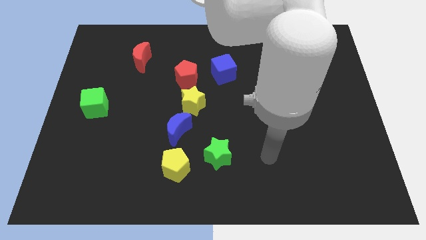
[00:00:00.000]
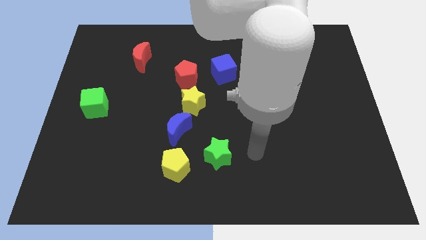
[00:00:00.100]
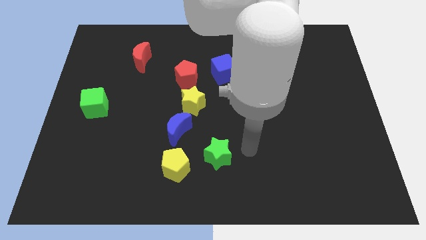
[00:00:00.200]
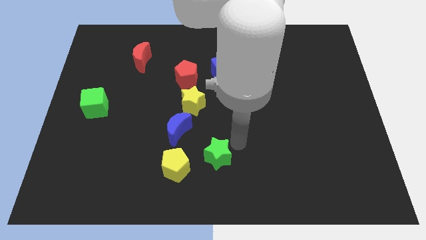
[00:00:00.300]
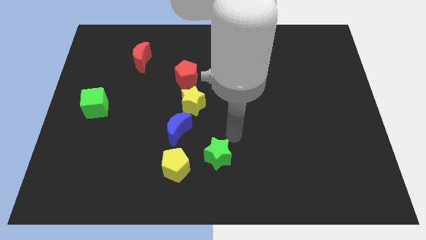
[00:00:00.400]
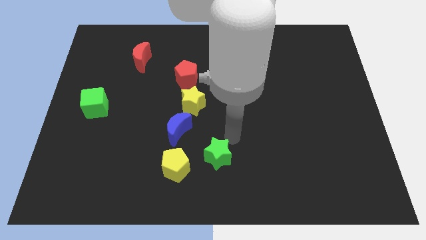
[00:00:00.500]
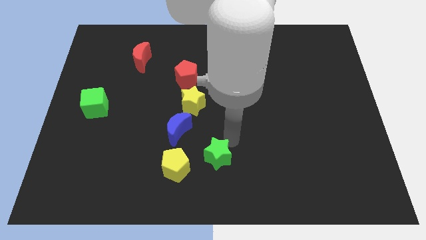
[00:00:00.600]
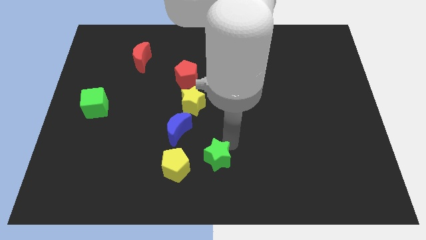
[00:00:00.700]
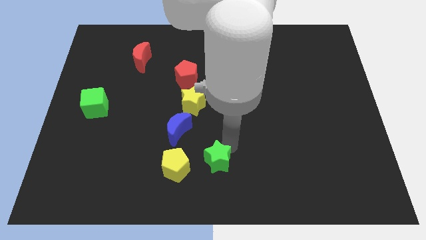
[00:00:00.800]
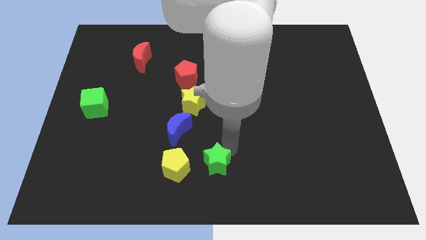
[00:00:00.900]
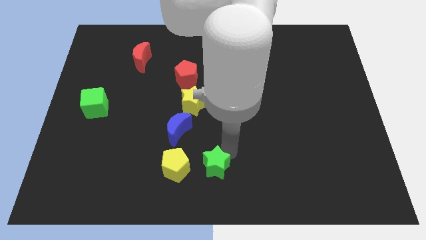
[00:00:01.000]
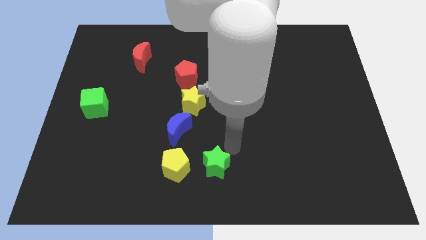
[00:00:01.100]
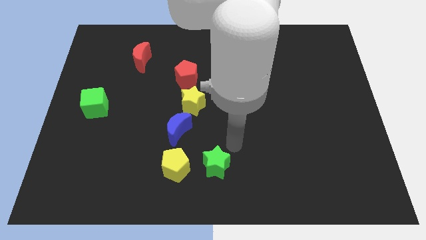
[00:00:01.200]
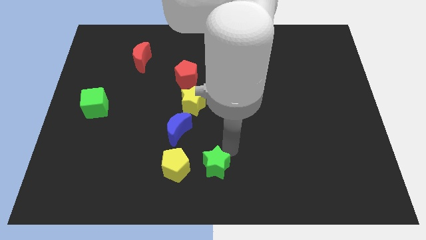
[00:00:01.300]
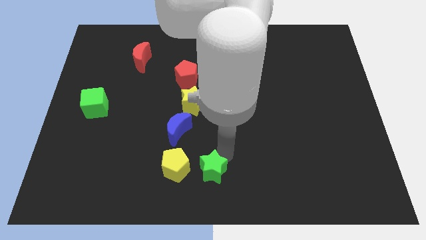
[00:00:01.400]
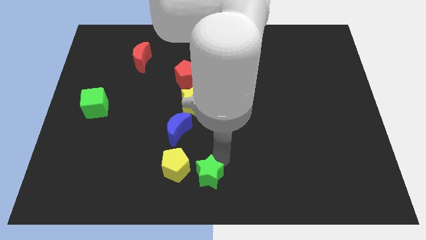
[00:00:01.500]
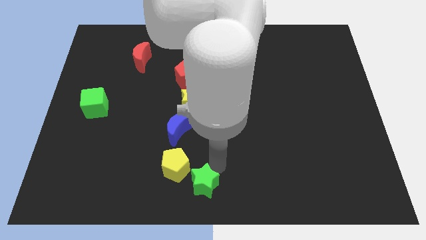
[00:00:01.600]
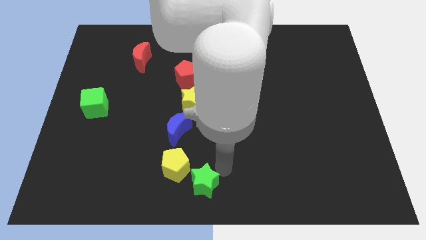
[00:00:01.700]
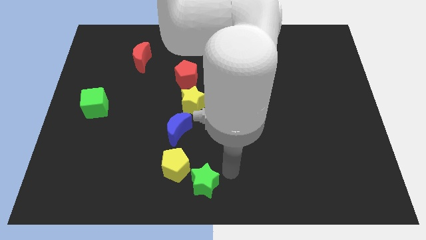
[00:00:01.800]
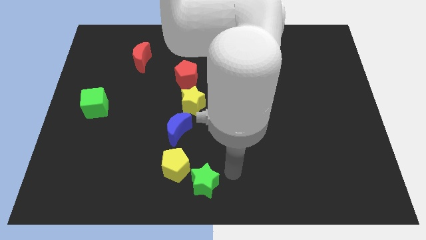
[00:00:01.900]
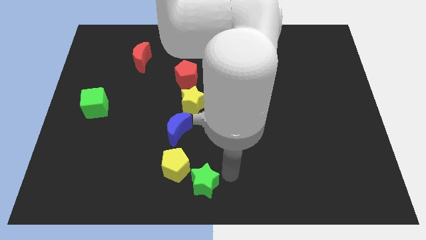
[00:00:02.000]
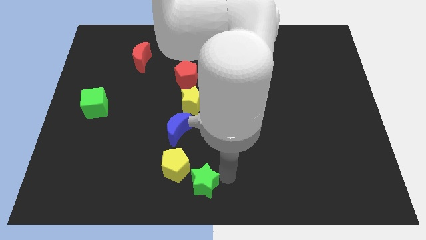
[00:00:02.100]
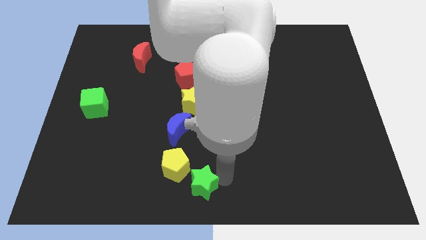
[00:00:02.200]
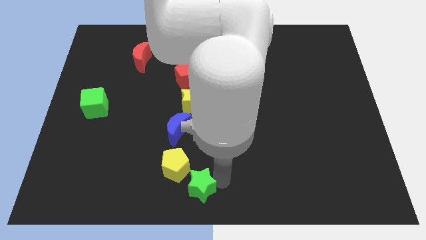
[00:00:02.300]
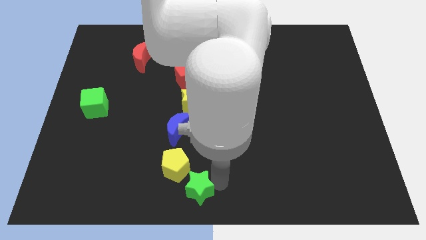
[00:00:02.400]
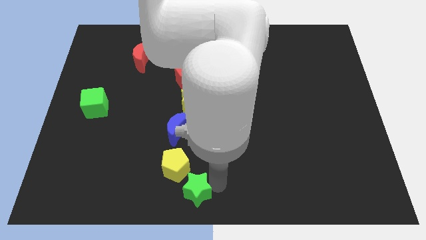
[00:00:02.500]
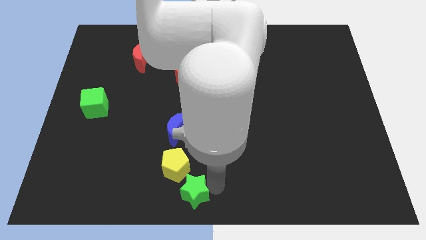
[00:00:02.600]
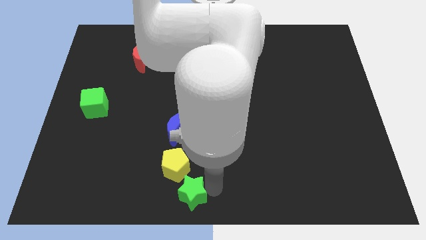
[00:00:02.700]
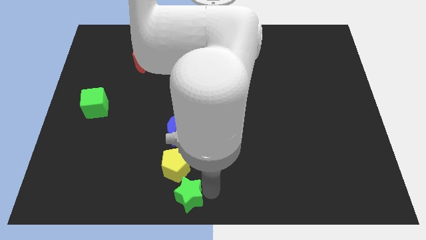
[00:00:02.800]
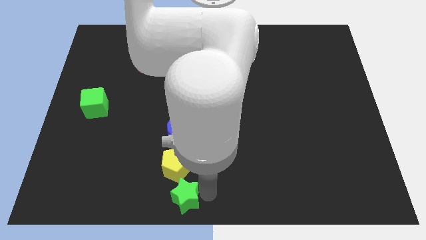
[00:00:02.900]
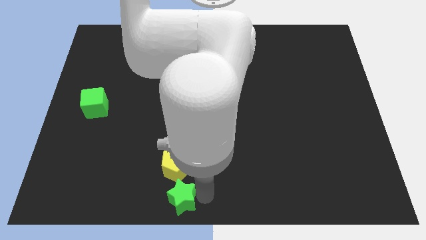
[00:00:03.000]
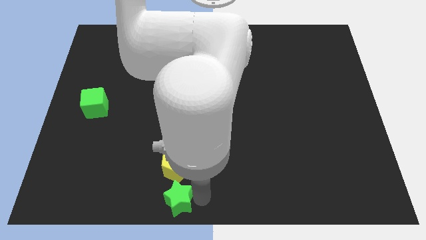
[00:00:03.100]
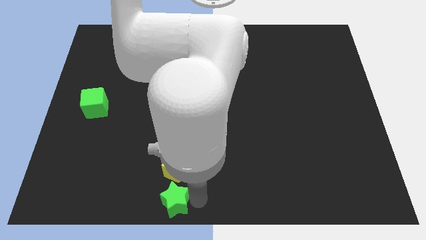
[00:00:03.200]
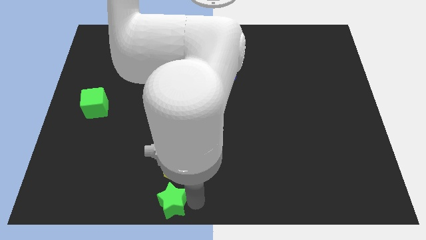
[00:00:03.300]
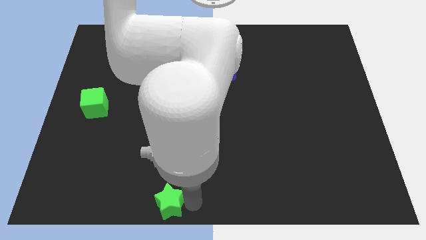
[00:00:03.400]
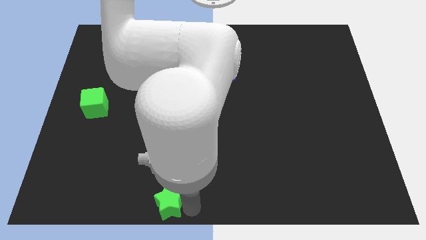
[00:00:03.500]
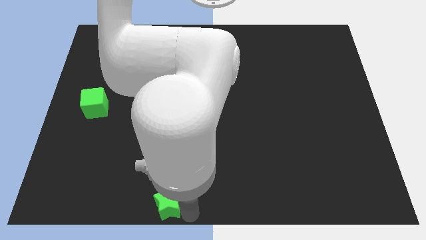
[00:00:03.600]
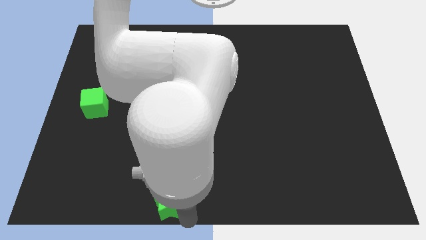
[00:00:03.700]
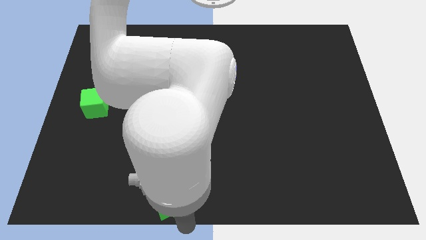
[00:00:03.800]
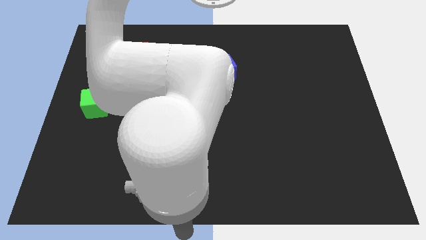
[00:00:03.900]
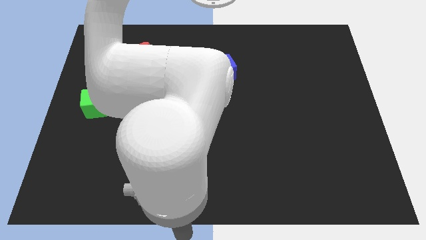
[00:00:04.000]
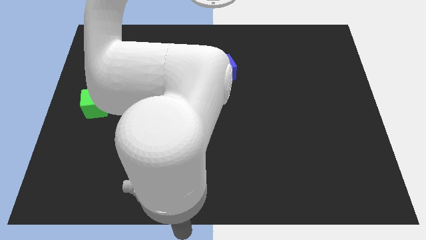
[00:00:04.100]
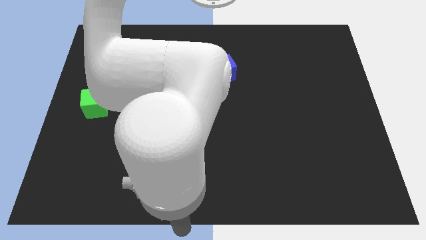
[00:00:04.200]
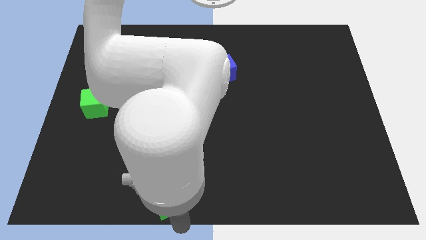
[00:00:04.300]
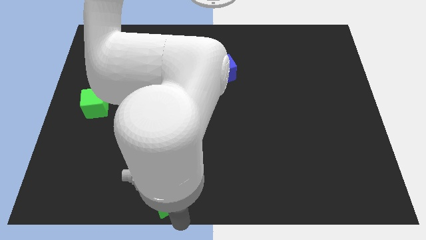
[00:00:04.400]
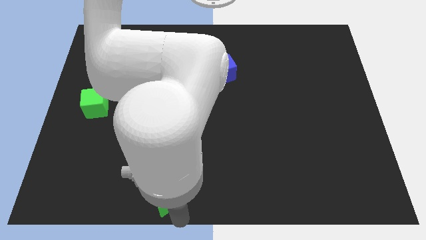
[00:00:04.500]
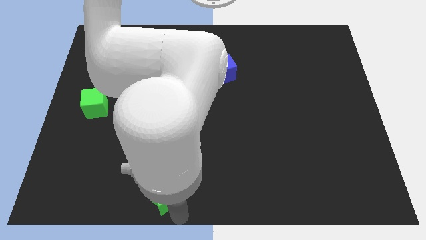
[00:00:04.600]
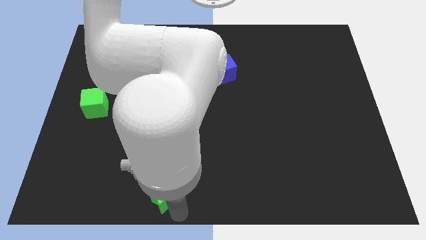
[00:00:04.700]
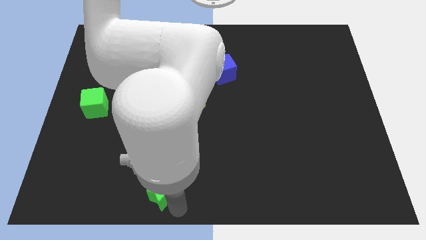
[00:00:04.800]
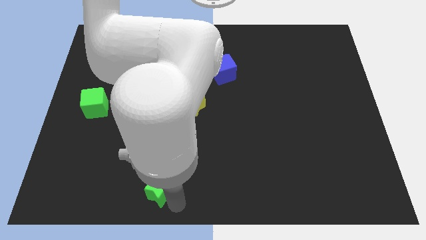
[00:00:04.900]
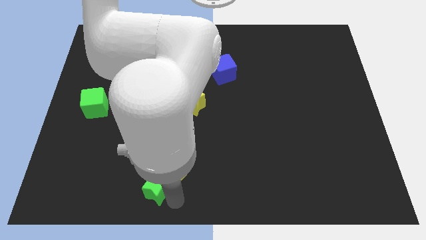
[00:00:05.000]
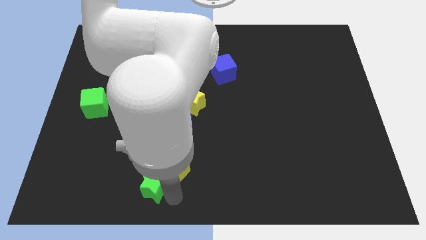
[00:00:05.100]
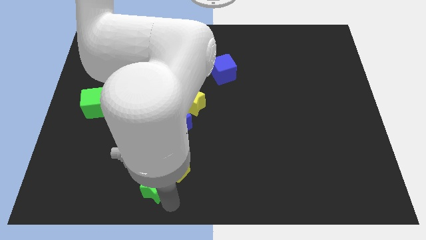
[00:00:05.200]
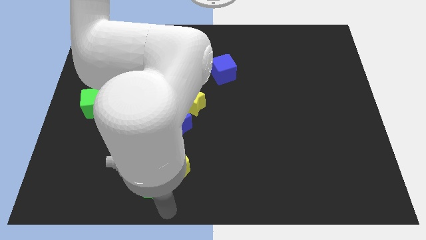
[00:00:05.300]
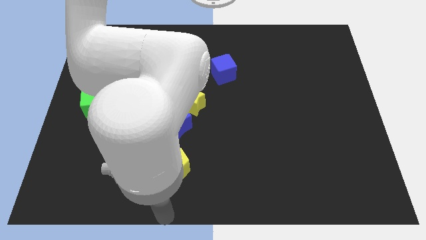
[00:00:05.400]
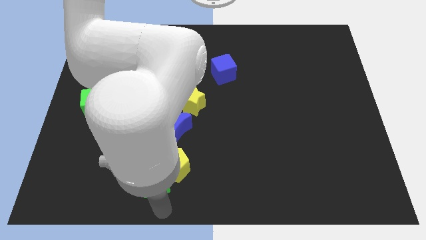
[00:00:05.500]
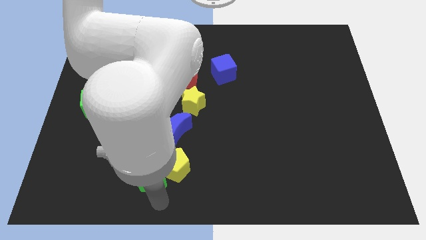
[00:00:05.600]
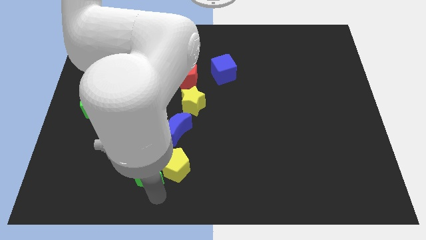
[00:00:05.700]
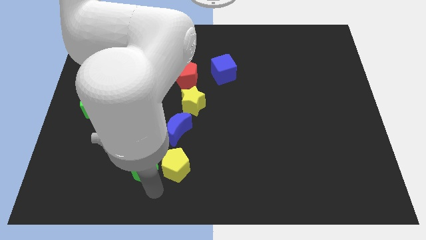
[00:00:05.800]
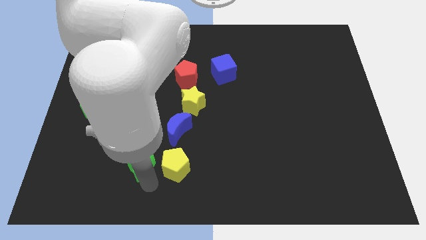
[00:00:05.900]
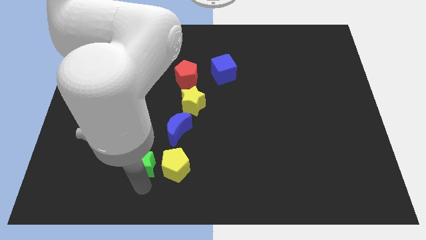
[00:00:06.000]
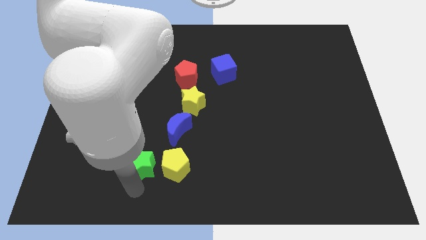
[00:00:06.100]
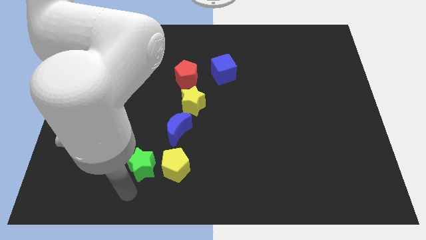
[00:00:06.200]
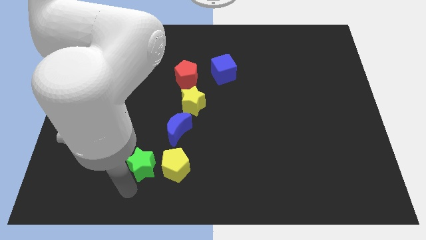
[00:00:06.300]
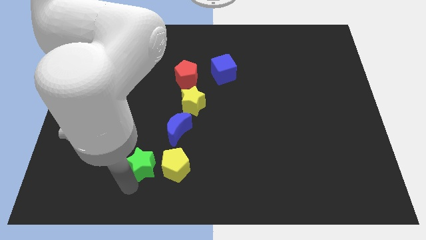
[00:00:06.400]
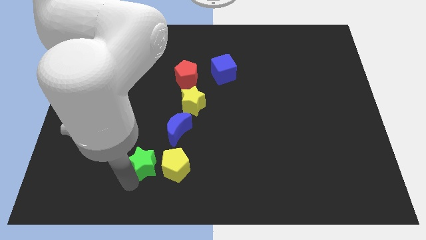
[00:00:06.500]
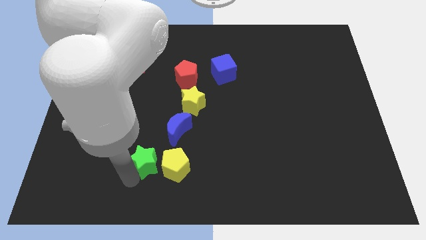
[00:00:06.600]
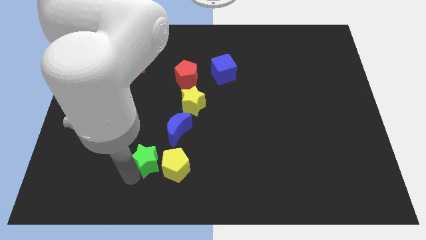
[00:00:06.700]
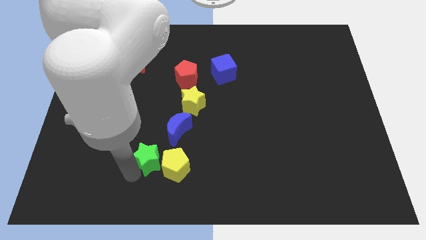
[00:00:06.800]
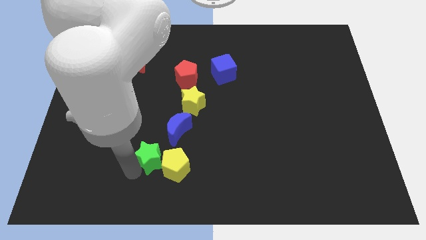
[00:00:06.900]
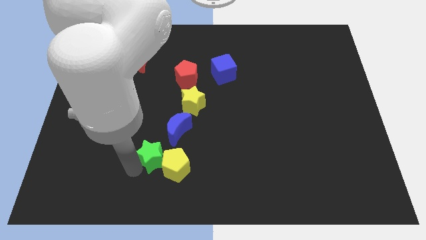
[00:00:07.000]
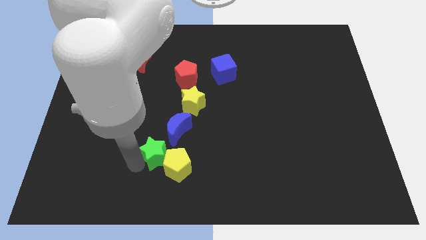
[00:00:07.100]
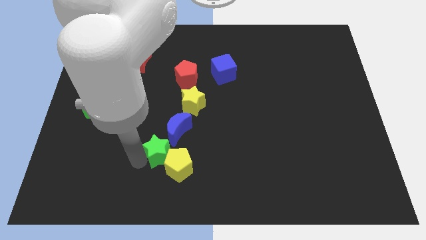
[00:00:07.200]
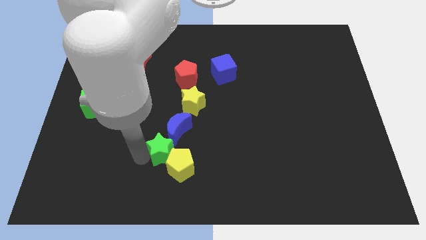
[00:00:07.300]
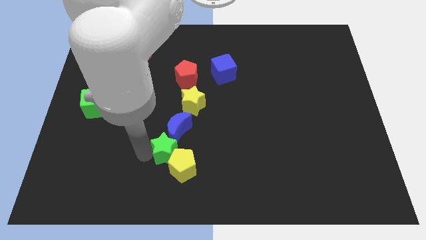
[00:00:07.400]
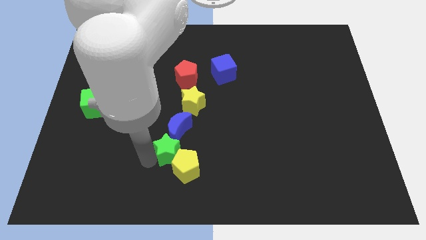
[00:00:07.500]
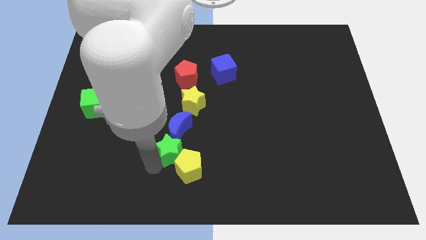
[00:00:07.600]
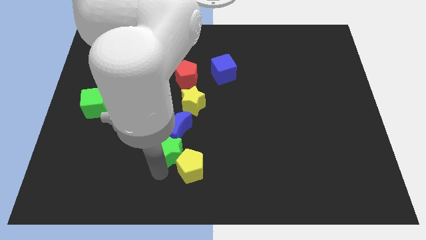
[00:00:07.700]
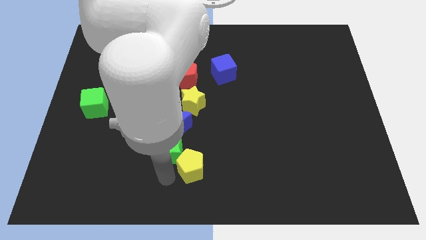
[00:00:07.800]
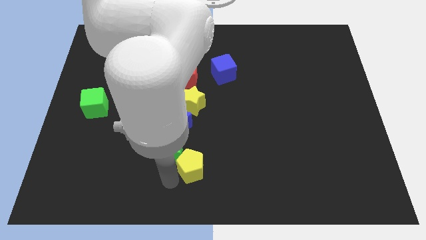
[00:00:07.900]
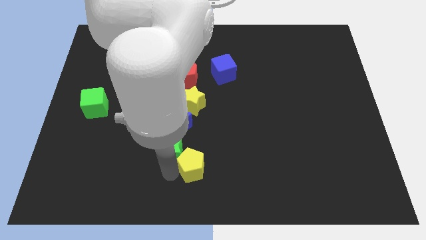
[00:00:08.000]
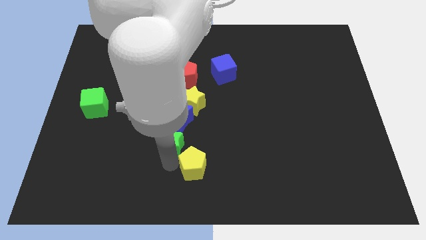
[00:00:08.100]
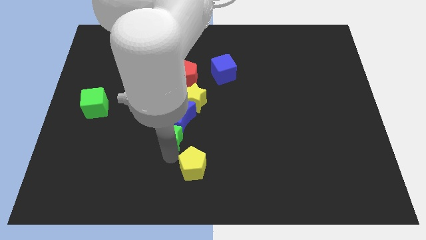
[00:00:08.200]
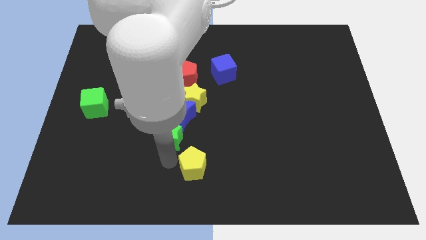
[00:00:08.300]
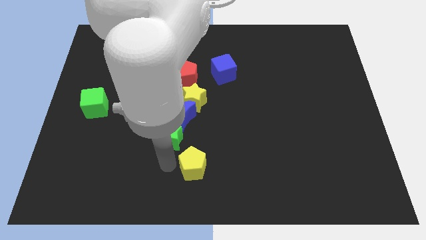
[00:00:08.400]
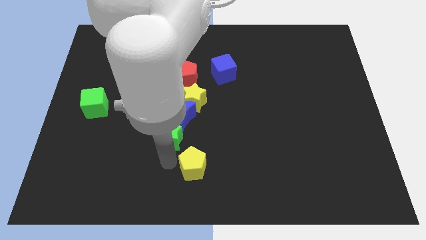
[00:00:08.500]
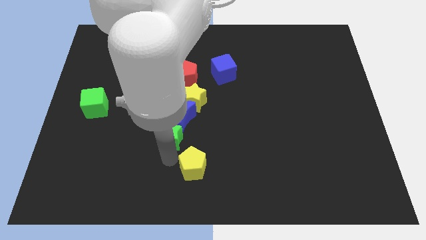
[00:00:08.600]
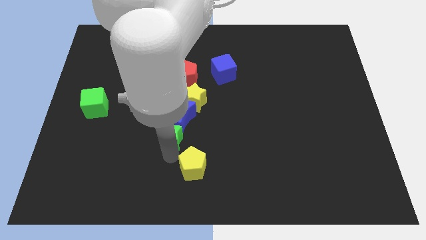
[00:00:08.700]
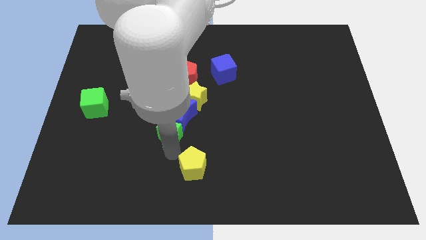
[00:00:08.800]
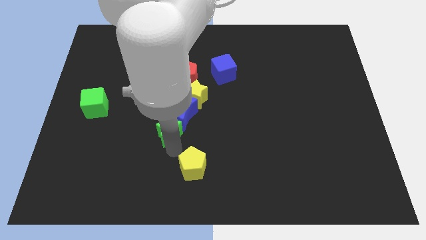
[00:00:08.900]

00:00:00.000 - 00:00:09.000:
put the green star diagonally down and to the left of the yellow star
